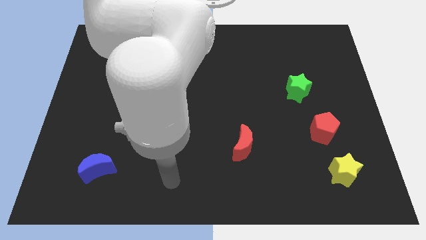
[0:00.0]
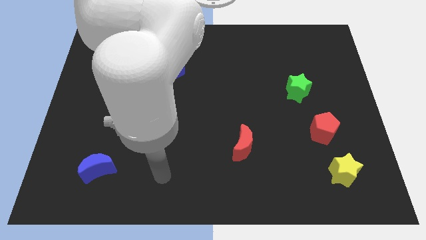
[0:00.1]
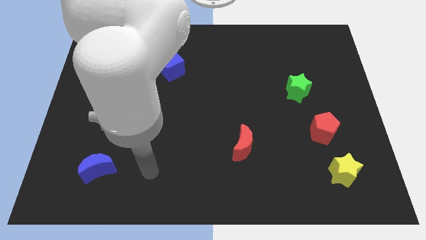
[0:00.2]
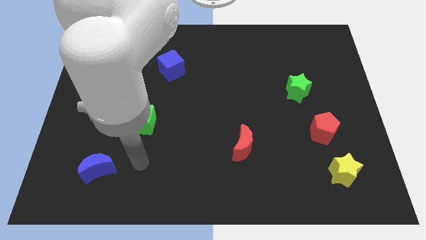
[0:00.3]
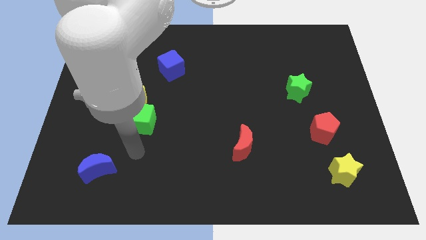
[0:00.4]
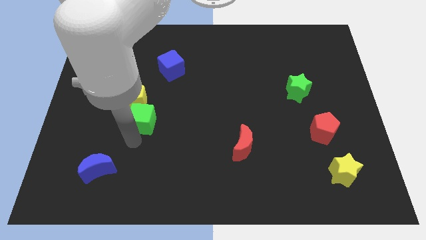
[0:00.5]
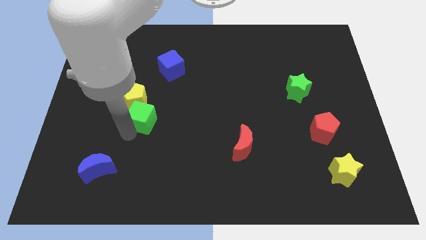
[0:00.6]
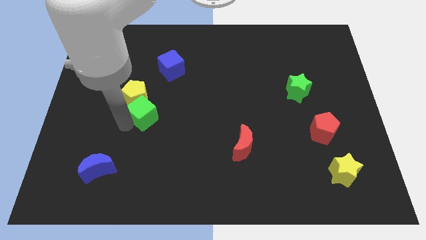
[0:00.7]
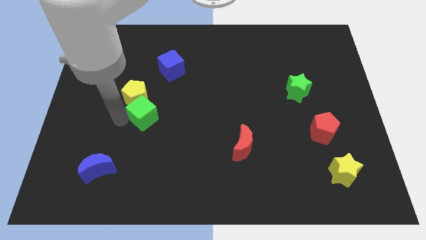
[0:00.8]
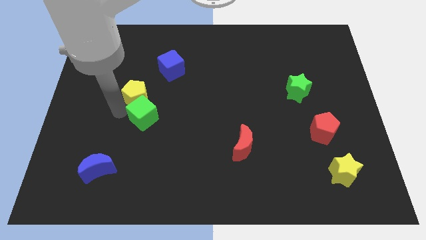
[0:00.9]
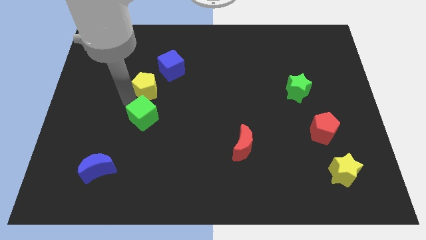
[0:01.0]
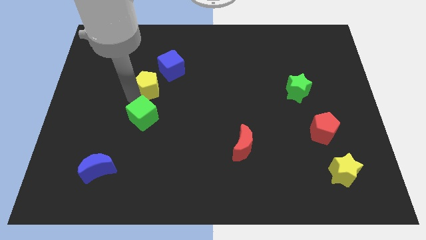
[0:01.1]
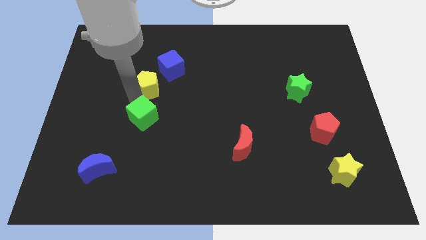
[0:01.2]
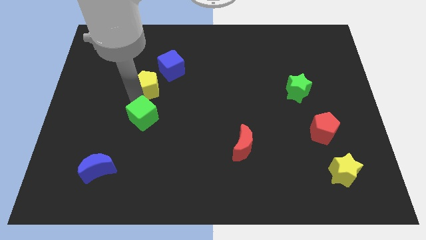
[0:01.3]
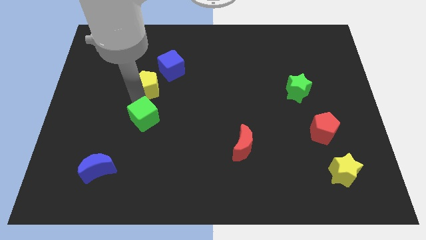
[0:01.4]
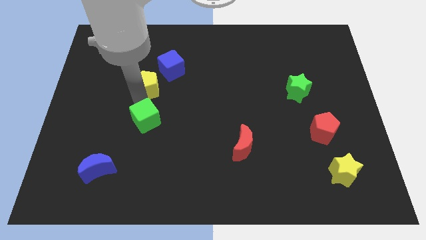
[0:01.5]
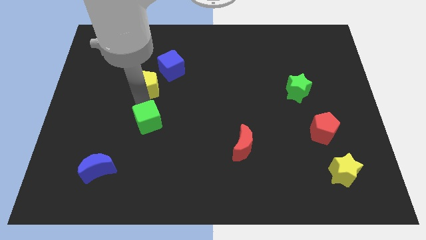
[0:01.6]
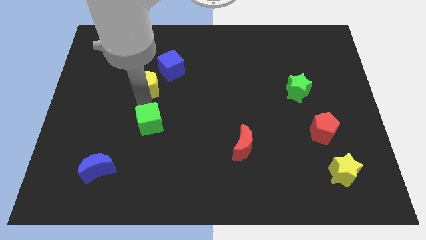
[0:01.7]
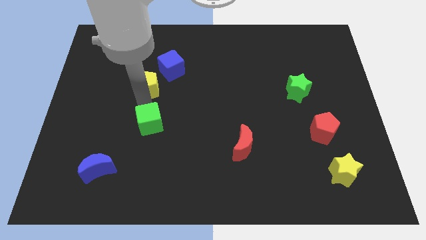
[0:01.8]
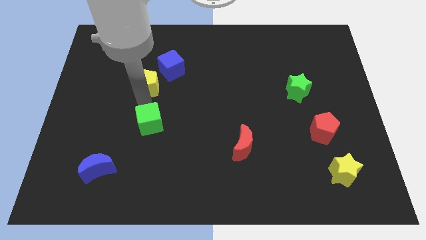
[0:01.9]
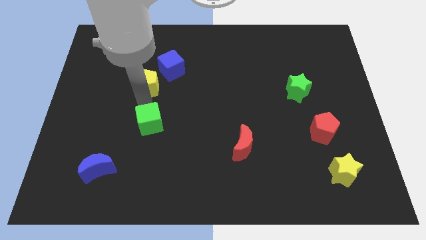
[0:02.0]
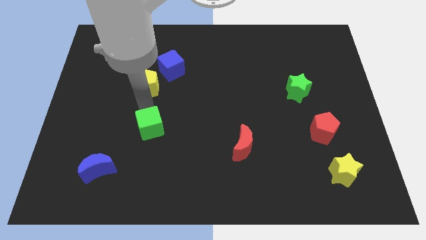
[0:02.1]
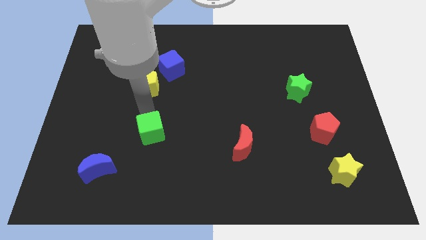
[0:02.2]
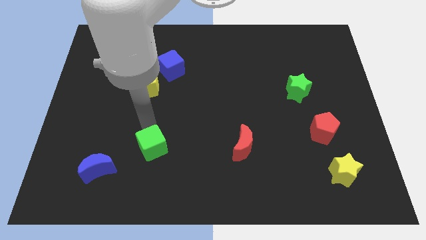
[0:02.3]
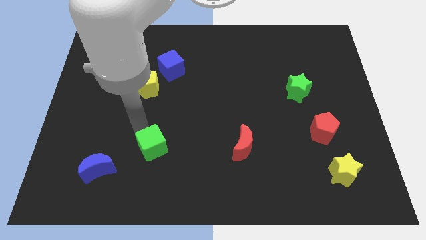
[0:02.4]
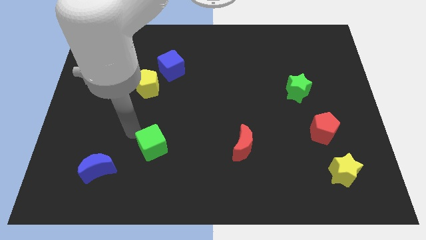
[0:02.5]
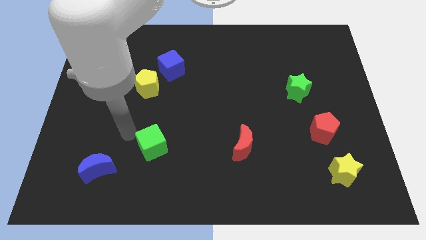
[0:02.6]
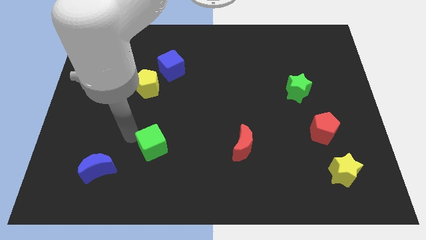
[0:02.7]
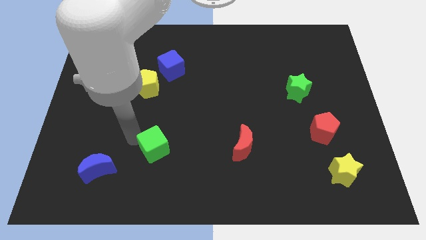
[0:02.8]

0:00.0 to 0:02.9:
slightly push the green cube downwards and then right

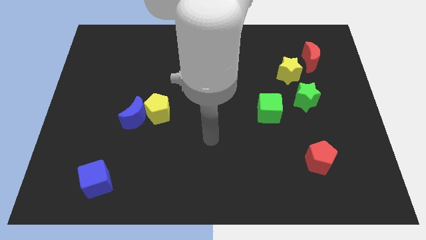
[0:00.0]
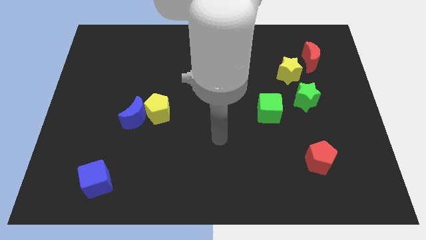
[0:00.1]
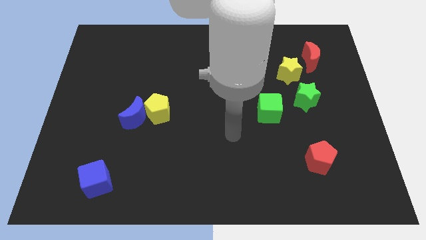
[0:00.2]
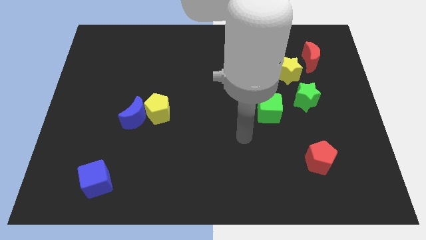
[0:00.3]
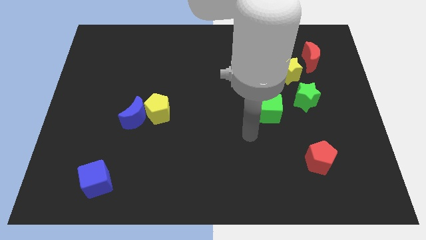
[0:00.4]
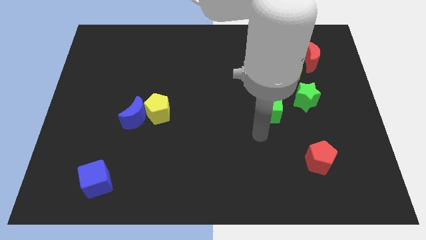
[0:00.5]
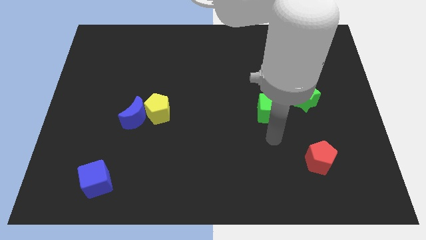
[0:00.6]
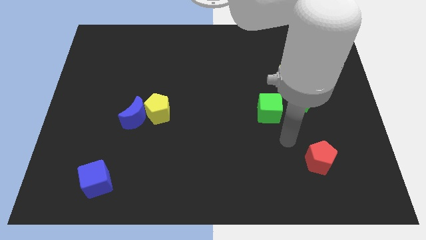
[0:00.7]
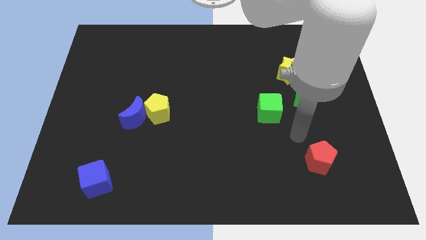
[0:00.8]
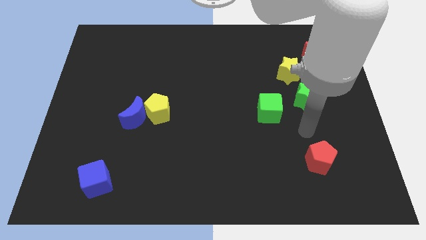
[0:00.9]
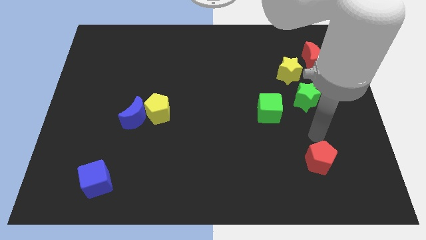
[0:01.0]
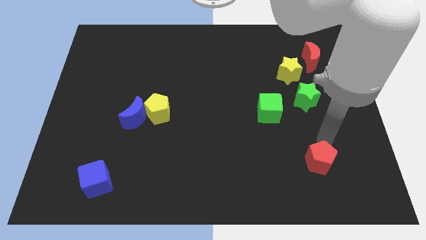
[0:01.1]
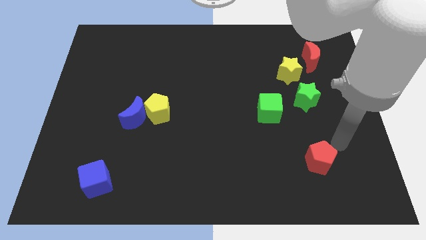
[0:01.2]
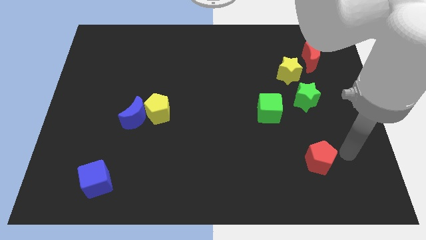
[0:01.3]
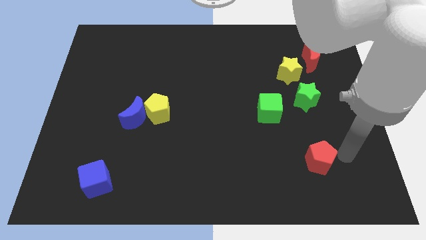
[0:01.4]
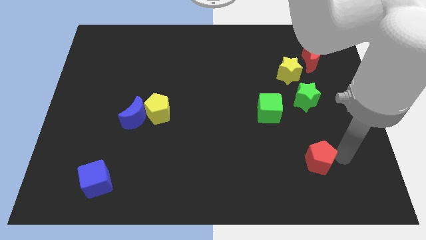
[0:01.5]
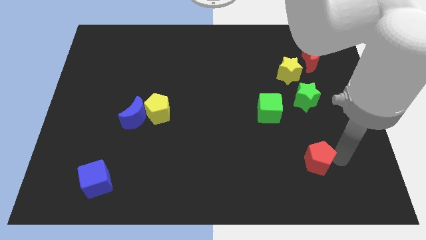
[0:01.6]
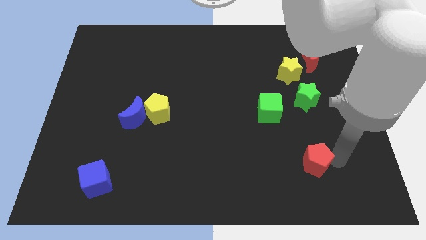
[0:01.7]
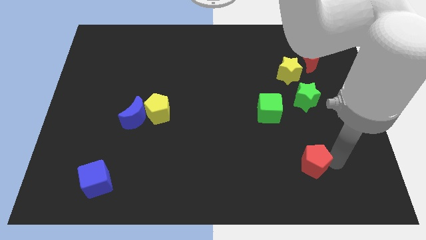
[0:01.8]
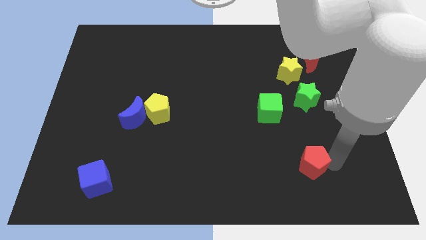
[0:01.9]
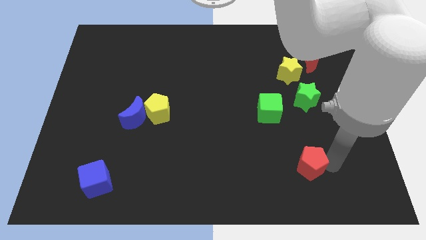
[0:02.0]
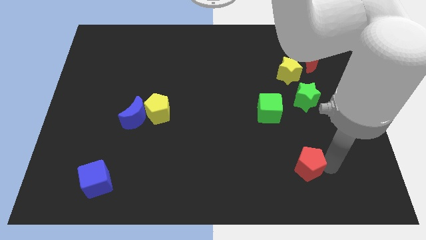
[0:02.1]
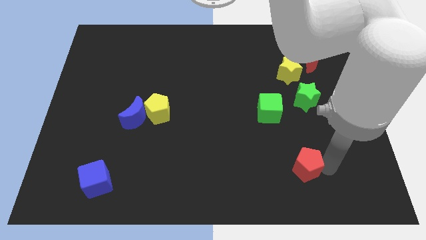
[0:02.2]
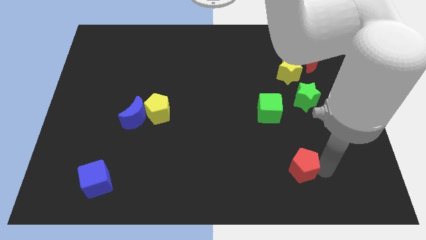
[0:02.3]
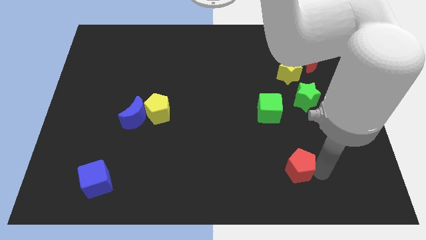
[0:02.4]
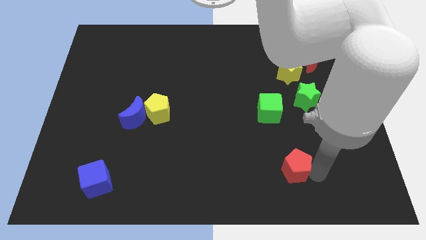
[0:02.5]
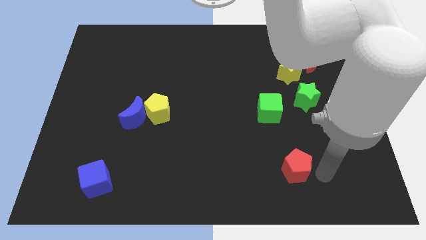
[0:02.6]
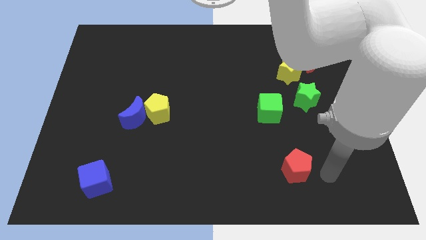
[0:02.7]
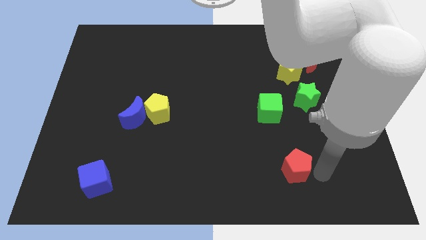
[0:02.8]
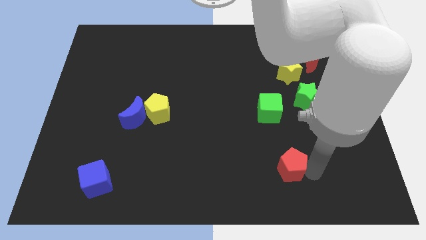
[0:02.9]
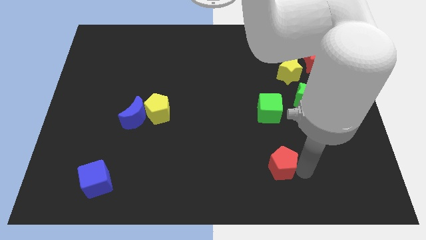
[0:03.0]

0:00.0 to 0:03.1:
push the red pentagon left slightly

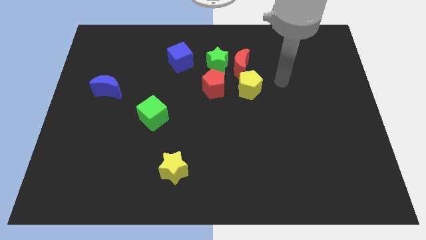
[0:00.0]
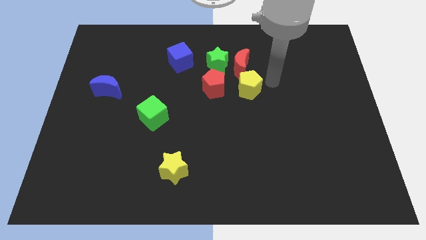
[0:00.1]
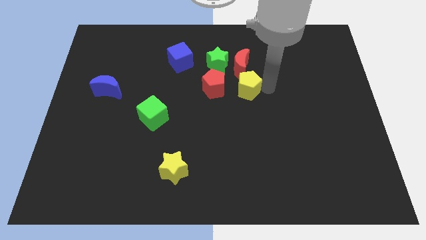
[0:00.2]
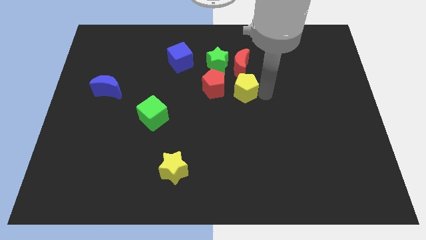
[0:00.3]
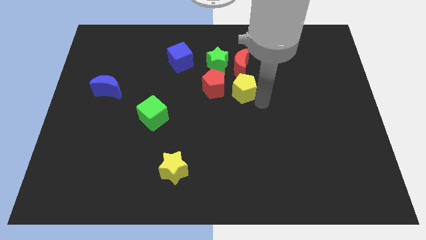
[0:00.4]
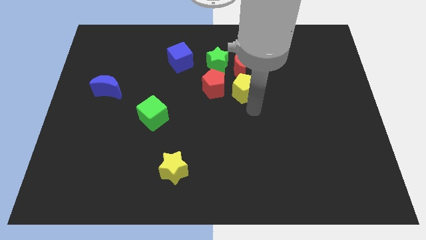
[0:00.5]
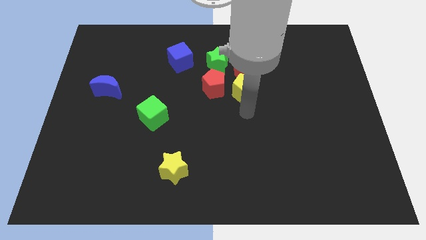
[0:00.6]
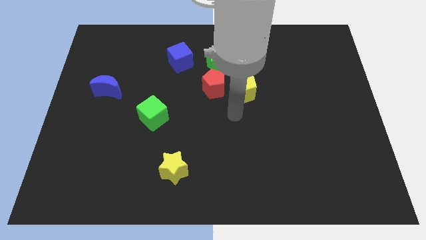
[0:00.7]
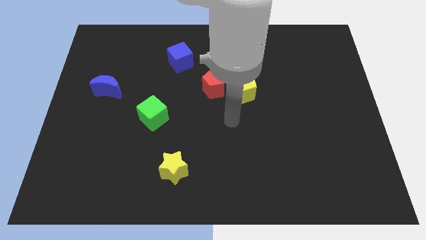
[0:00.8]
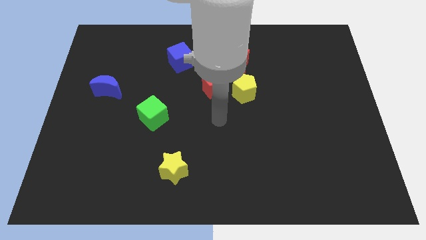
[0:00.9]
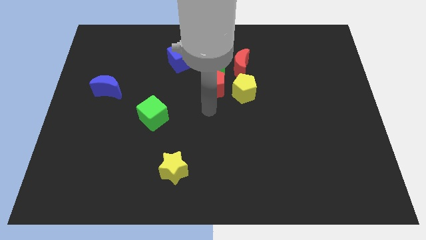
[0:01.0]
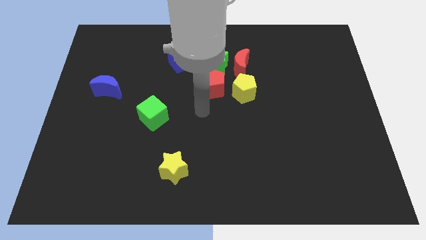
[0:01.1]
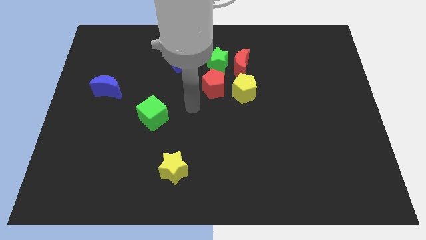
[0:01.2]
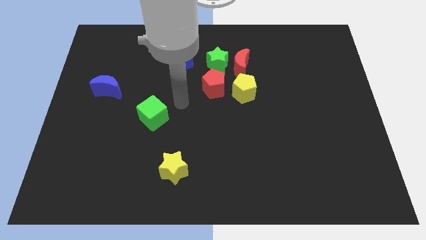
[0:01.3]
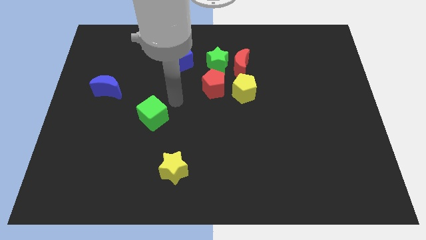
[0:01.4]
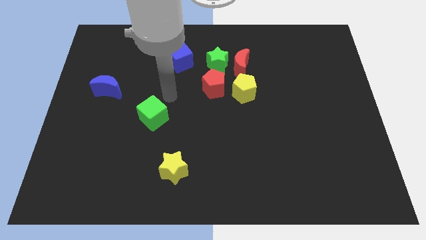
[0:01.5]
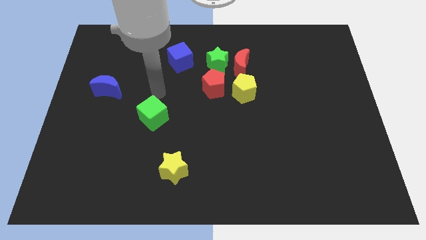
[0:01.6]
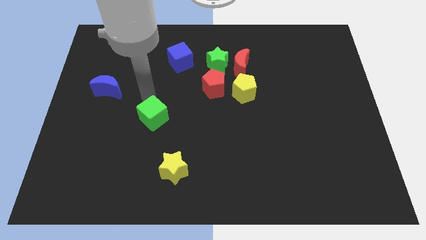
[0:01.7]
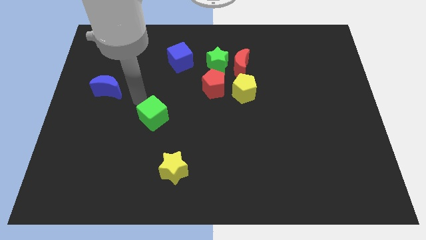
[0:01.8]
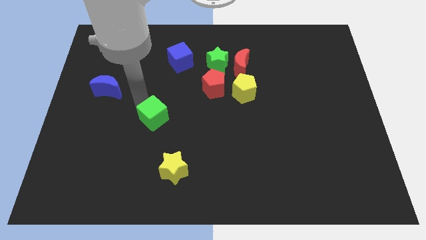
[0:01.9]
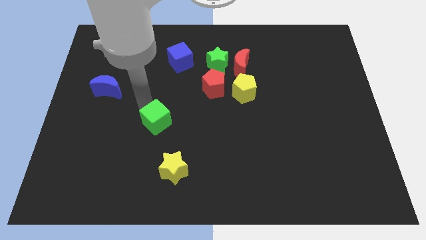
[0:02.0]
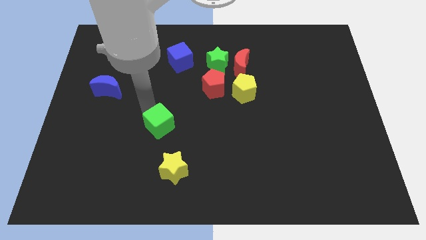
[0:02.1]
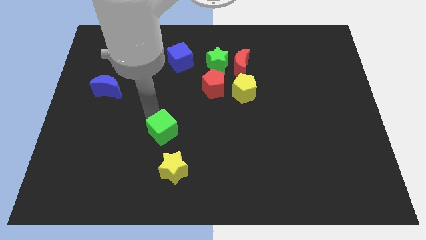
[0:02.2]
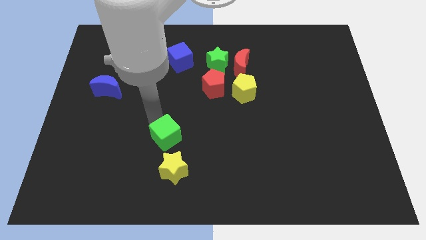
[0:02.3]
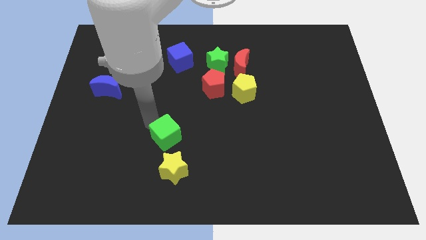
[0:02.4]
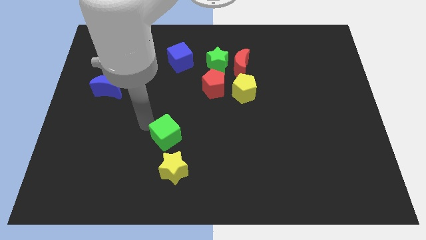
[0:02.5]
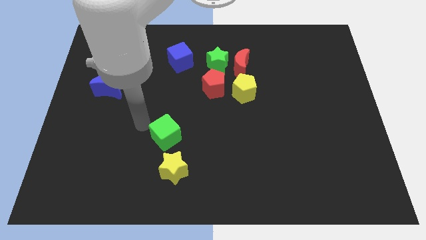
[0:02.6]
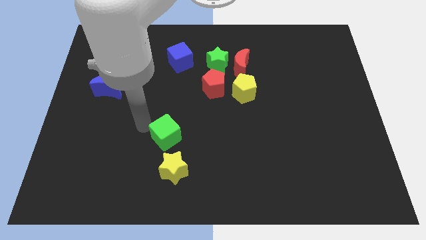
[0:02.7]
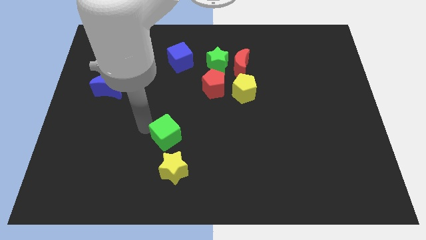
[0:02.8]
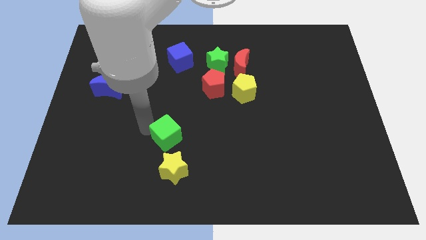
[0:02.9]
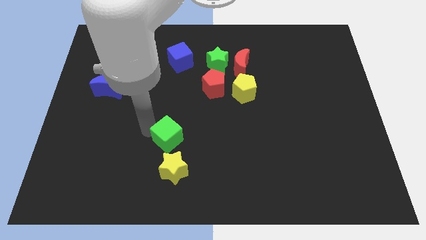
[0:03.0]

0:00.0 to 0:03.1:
push the green cube down and to the right diagonally a little
